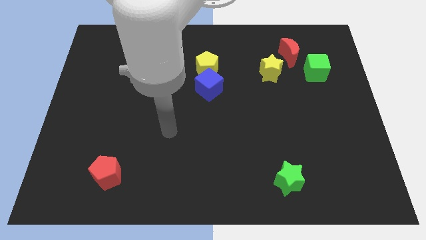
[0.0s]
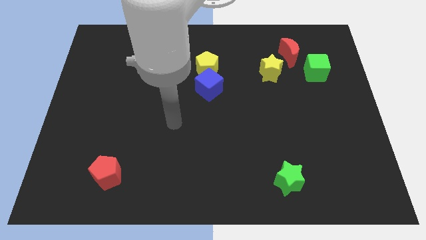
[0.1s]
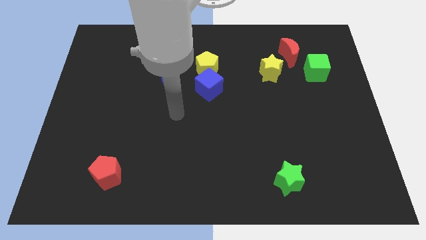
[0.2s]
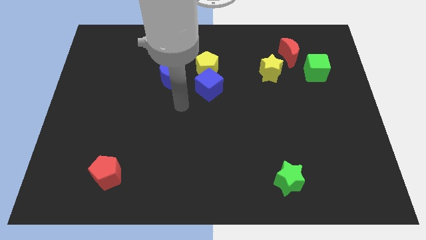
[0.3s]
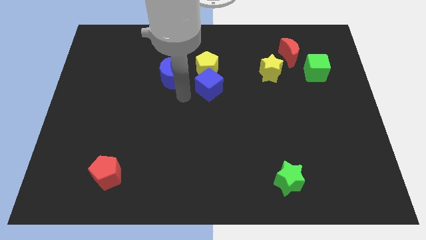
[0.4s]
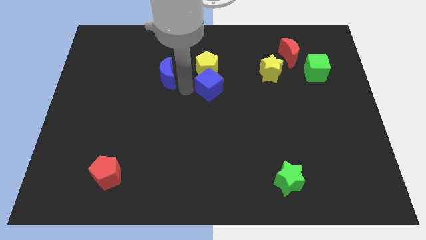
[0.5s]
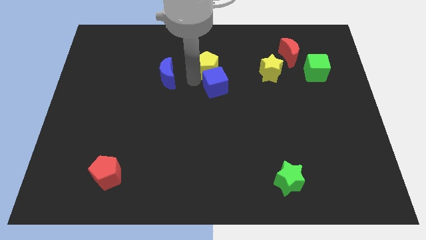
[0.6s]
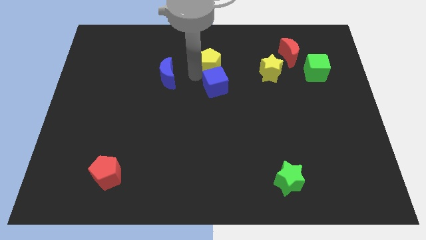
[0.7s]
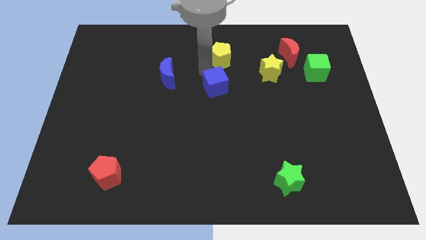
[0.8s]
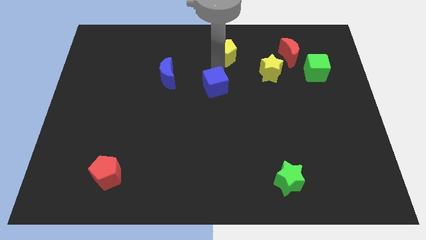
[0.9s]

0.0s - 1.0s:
move the blue cube away from the yellow pentagon

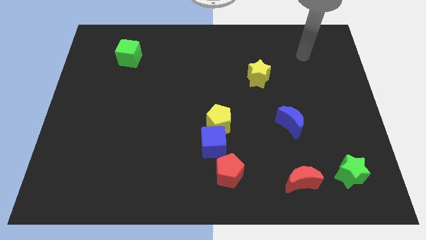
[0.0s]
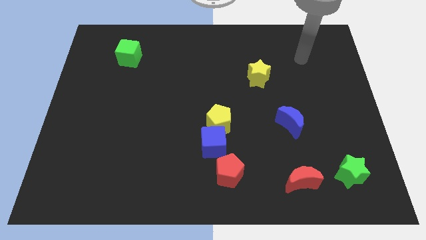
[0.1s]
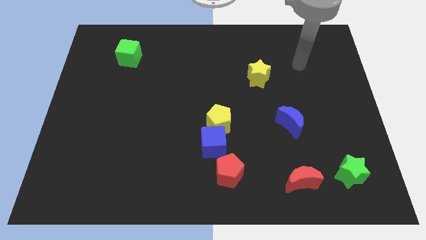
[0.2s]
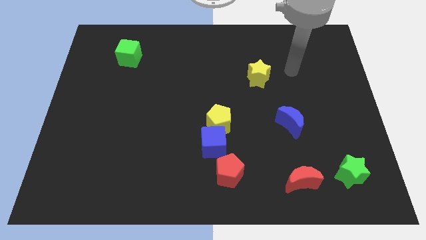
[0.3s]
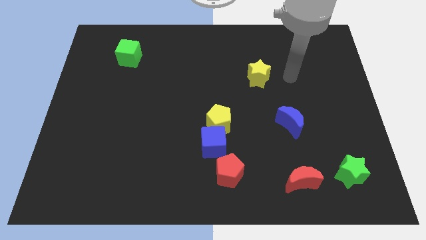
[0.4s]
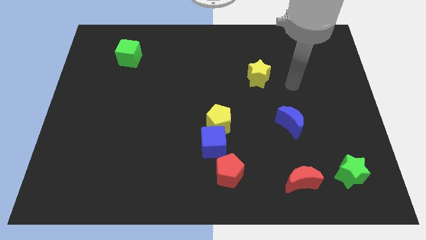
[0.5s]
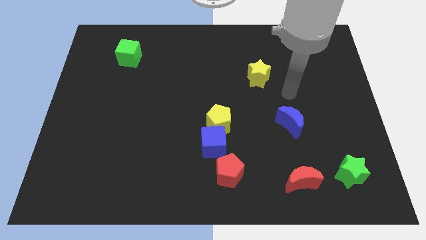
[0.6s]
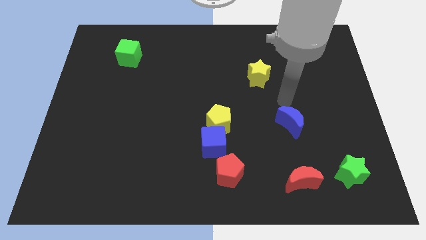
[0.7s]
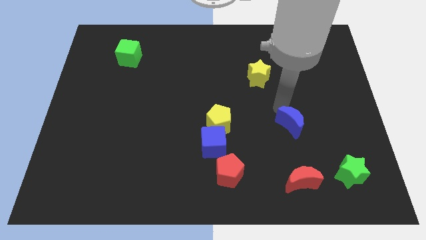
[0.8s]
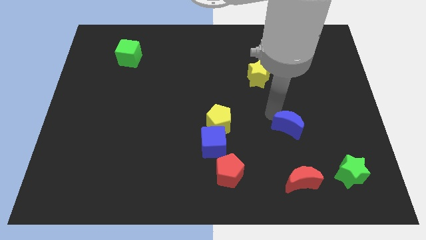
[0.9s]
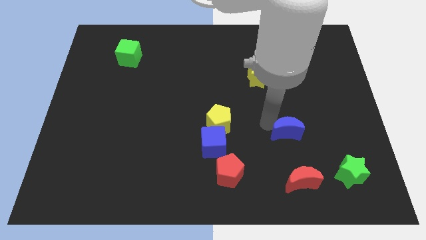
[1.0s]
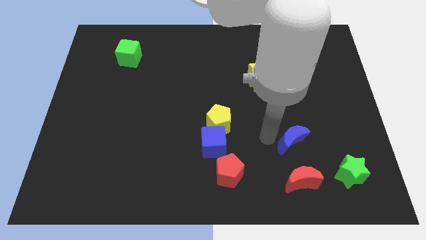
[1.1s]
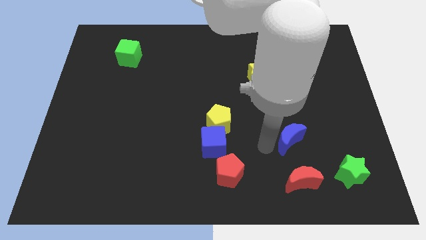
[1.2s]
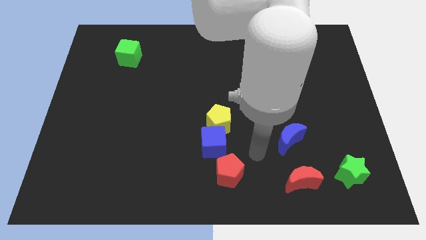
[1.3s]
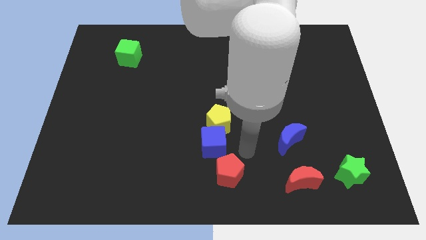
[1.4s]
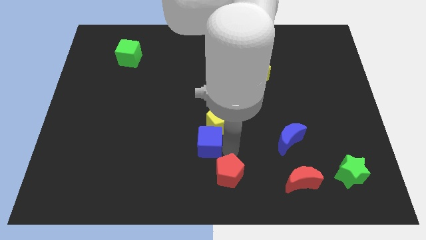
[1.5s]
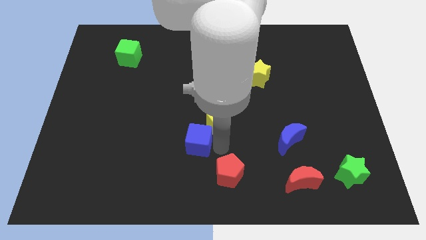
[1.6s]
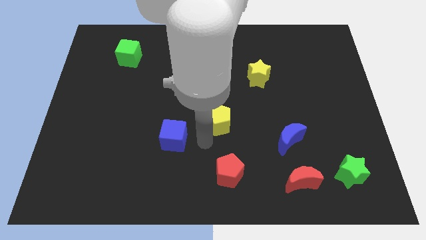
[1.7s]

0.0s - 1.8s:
separate the yellow pentagon from the blue cube

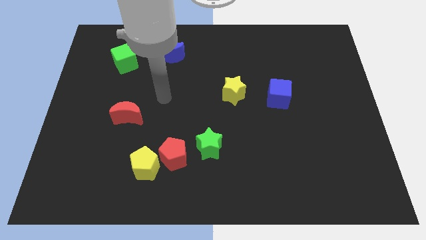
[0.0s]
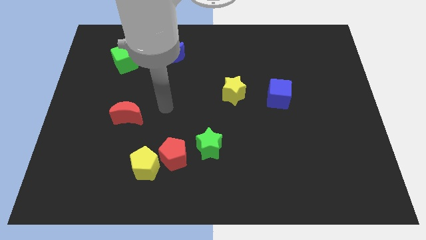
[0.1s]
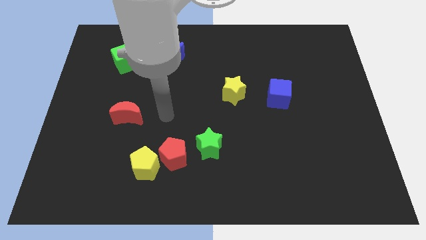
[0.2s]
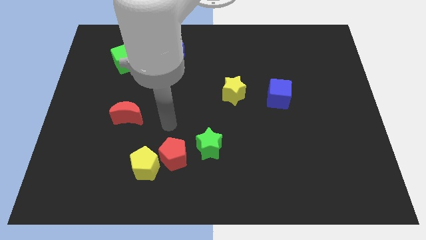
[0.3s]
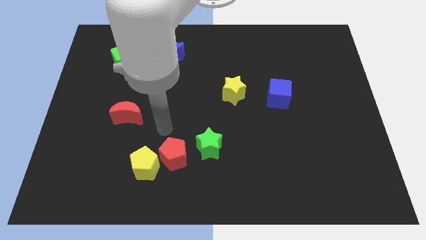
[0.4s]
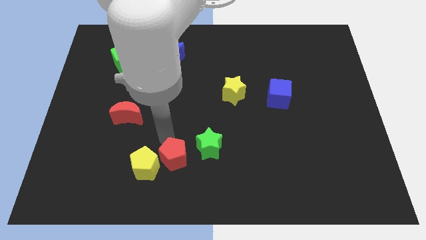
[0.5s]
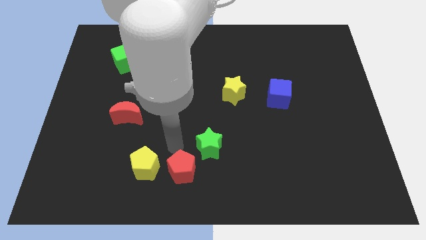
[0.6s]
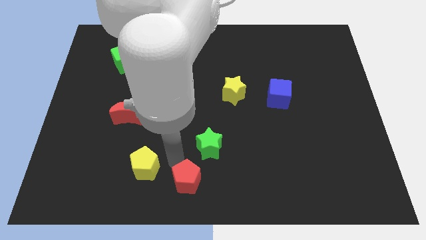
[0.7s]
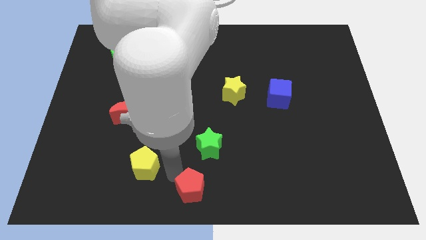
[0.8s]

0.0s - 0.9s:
separate the yellow pentagon from the red pentagon

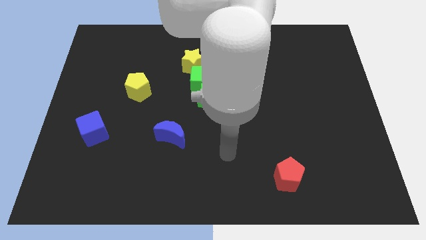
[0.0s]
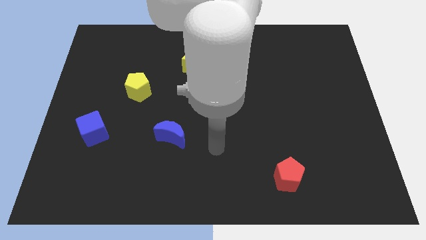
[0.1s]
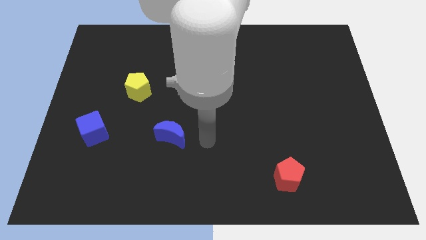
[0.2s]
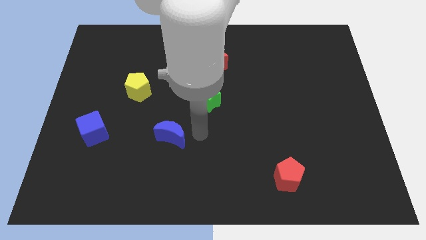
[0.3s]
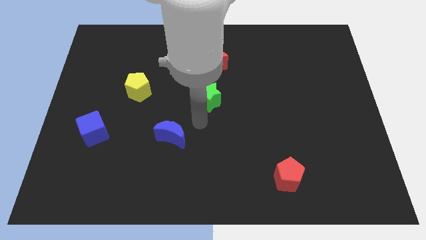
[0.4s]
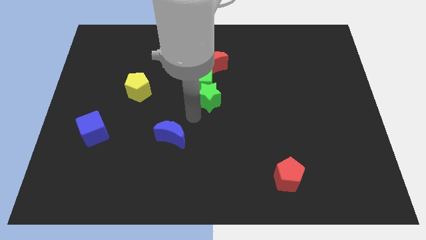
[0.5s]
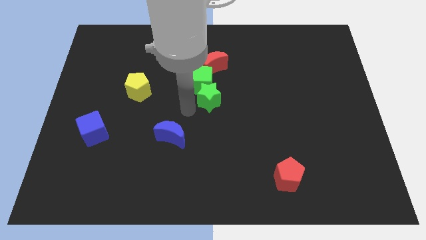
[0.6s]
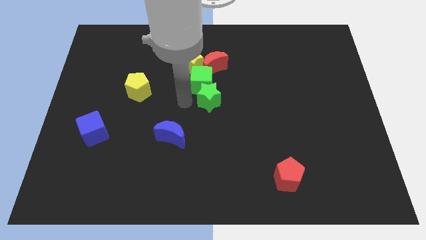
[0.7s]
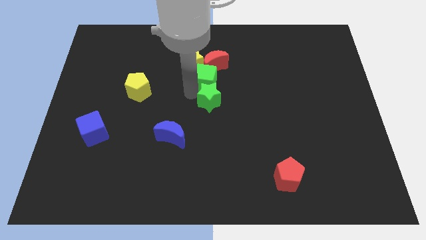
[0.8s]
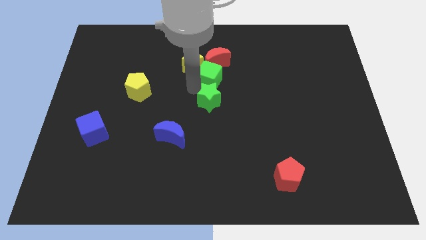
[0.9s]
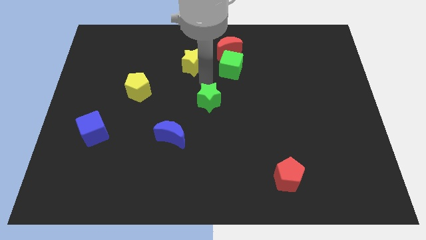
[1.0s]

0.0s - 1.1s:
pull the green star apart from the green cube

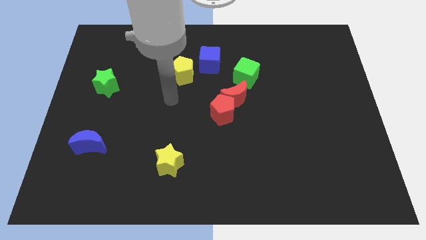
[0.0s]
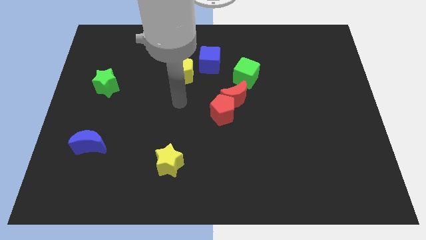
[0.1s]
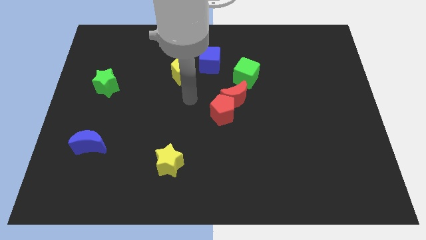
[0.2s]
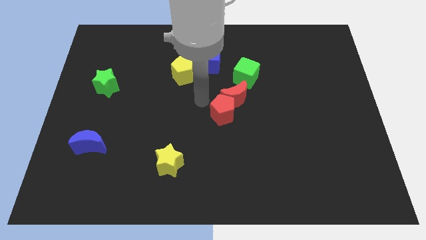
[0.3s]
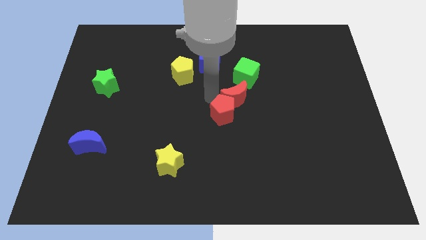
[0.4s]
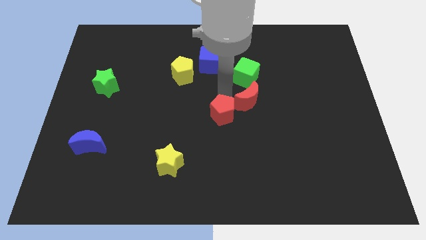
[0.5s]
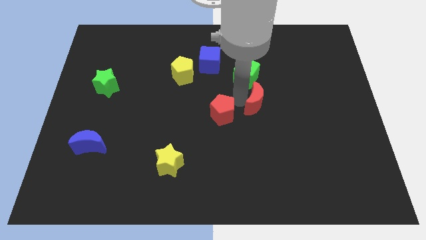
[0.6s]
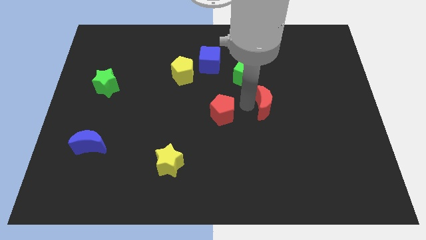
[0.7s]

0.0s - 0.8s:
move the red pentagon away from the red moon

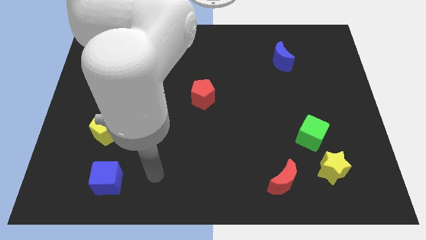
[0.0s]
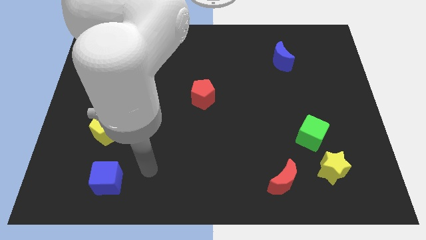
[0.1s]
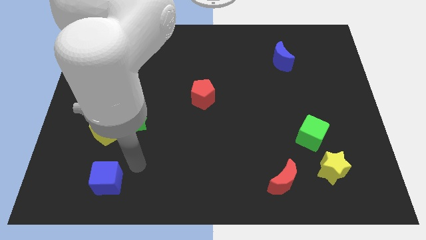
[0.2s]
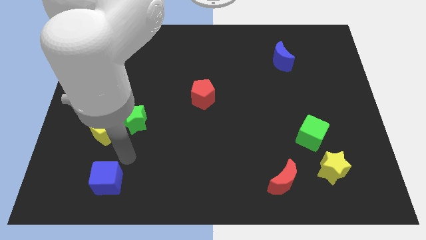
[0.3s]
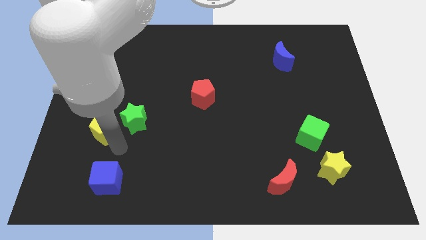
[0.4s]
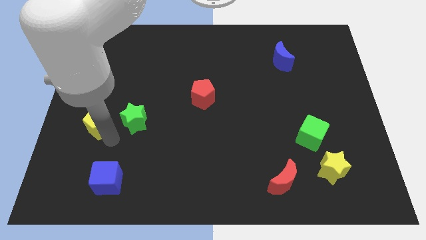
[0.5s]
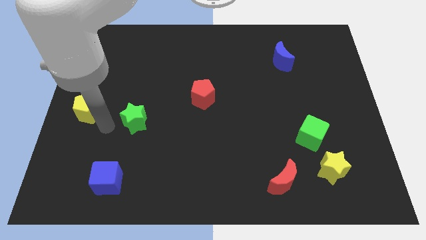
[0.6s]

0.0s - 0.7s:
pull the green star apart from the yellow pentagon

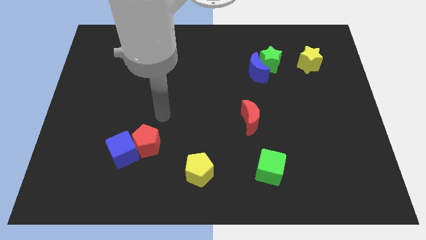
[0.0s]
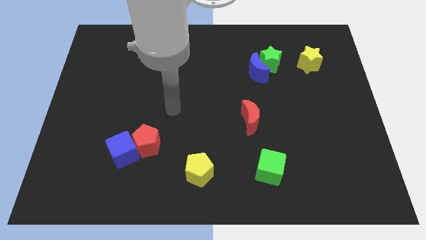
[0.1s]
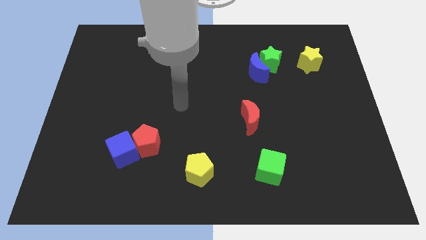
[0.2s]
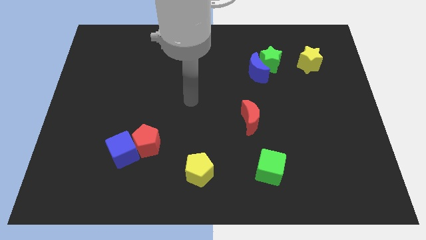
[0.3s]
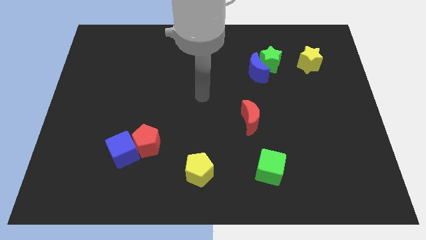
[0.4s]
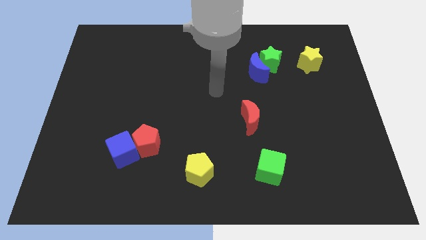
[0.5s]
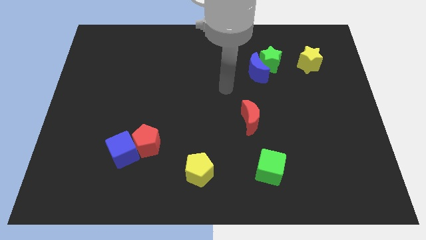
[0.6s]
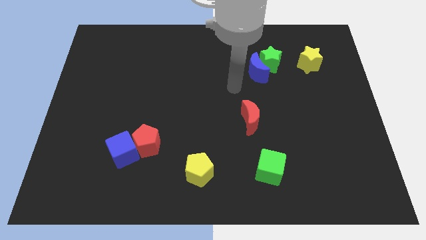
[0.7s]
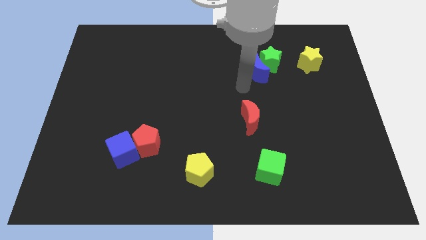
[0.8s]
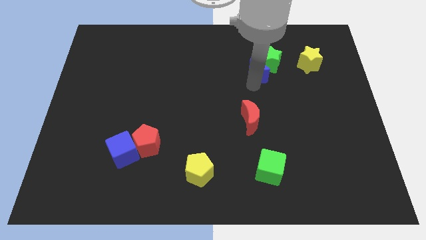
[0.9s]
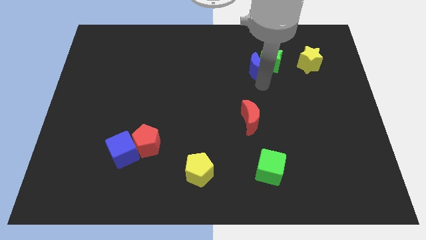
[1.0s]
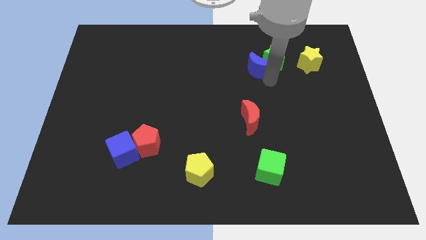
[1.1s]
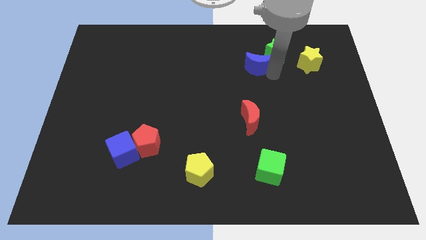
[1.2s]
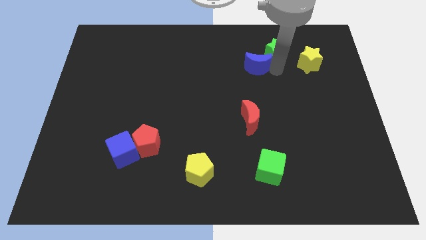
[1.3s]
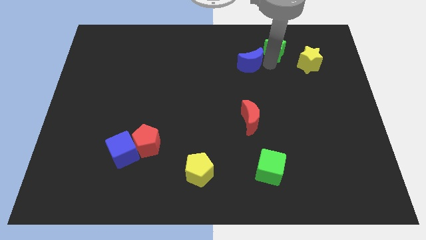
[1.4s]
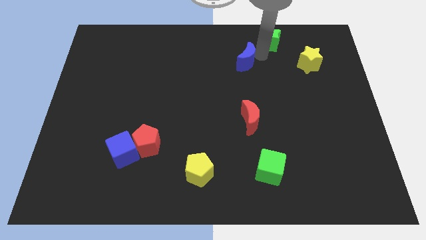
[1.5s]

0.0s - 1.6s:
move the blue moon away from the green star

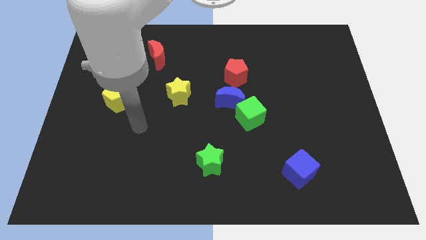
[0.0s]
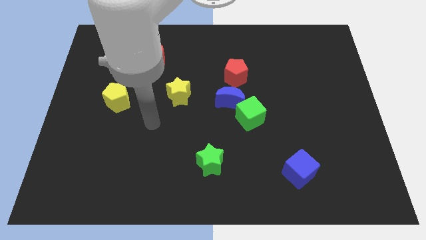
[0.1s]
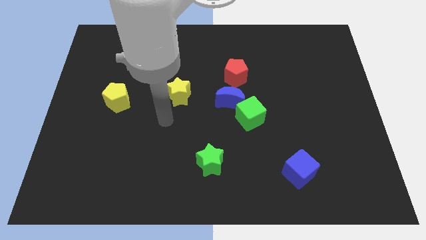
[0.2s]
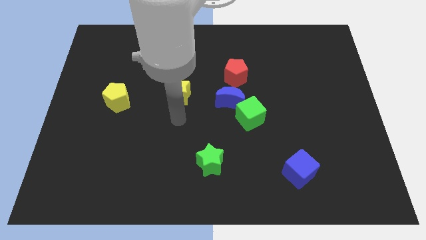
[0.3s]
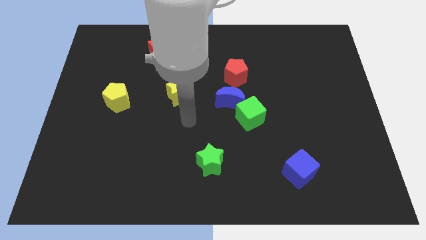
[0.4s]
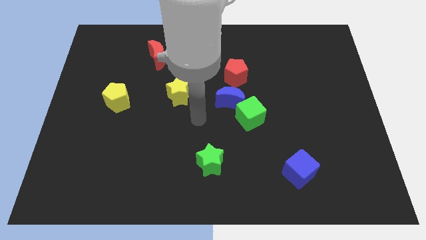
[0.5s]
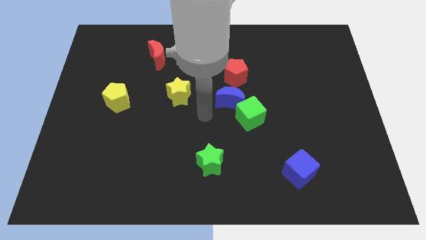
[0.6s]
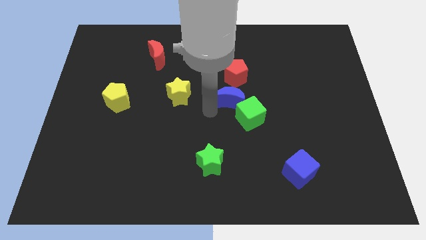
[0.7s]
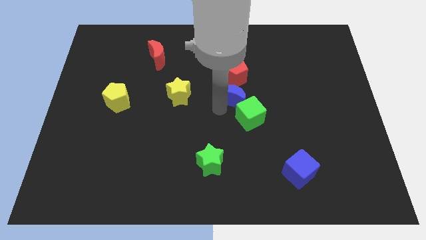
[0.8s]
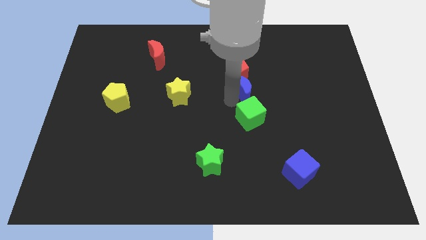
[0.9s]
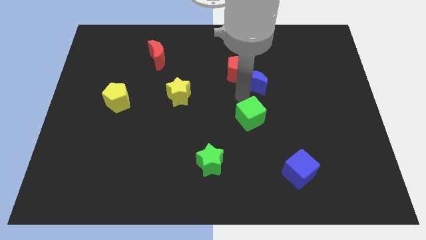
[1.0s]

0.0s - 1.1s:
separate the green cube from the blue moon

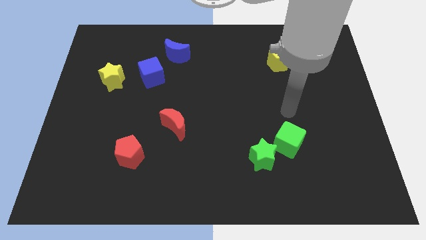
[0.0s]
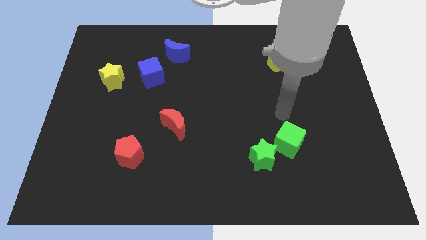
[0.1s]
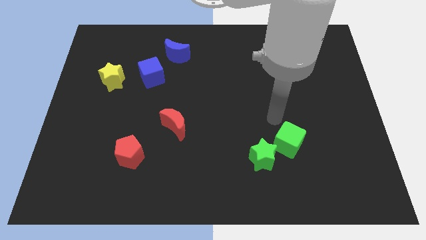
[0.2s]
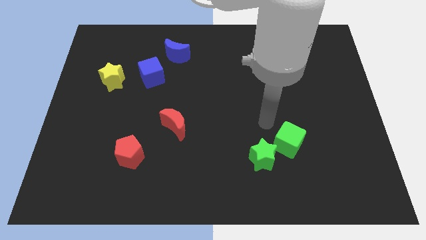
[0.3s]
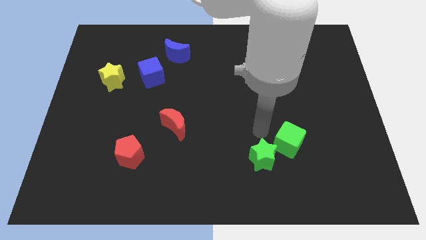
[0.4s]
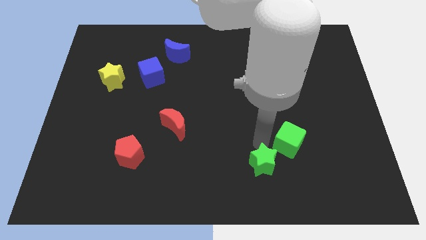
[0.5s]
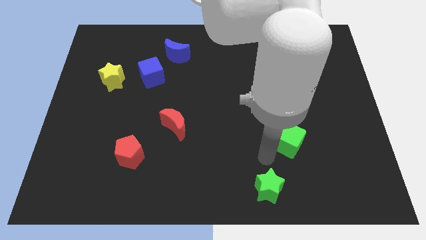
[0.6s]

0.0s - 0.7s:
pull the green cube apart from the green star
